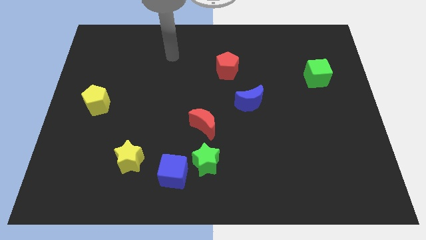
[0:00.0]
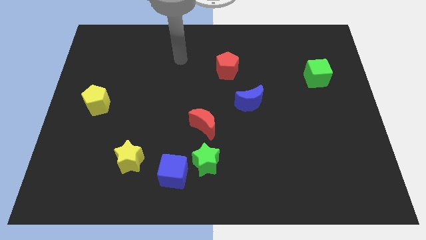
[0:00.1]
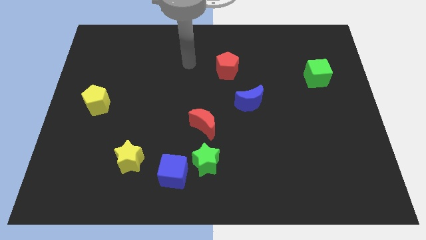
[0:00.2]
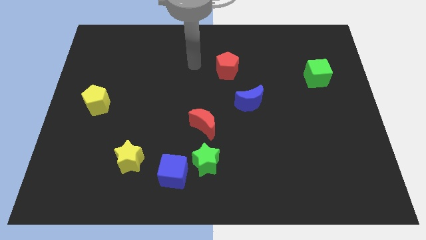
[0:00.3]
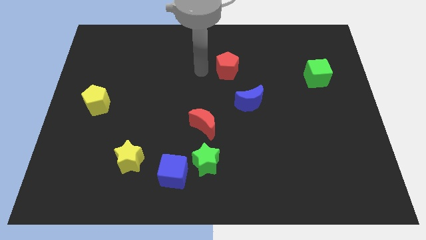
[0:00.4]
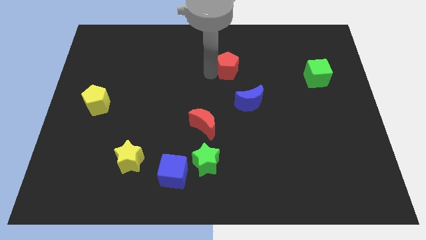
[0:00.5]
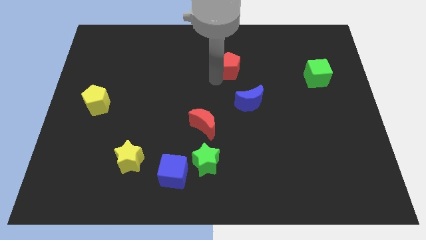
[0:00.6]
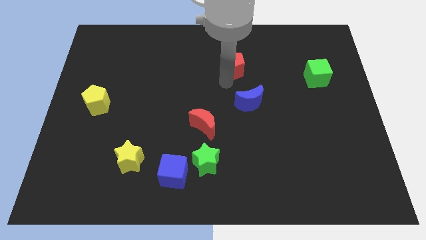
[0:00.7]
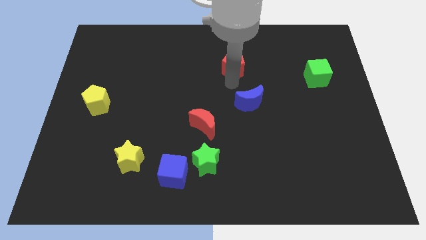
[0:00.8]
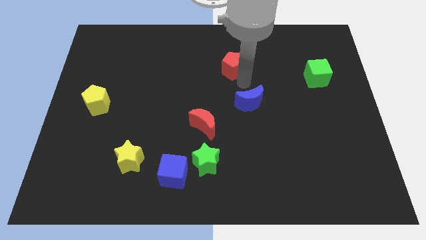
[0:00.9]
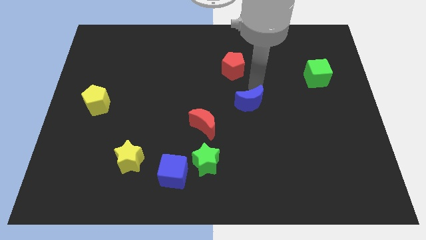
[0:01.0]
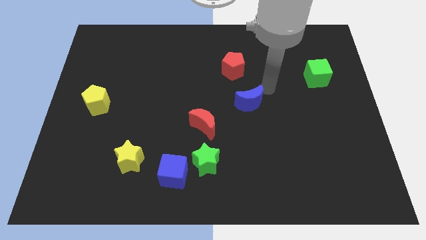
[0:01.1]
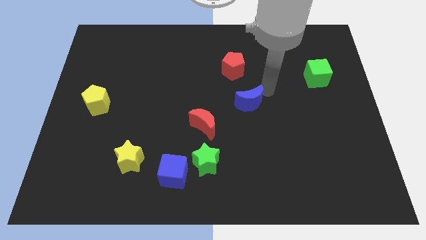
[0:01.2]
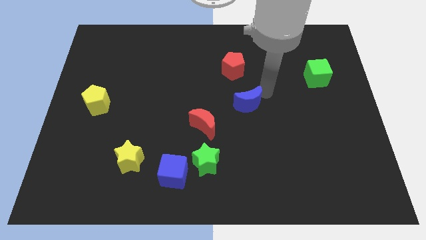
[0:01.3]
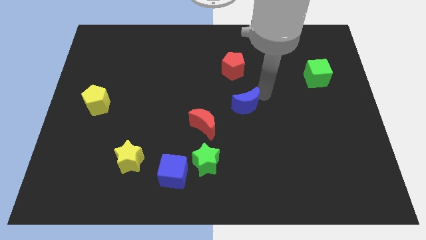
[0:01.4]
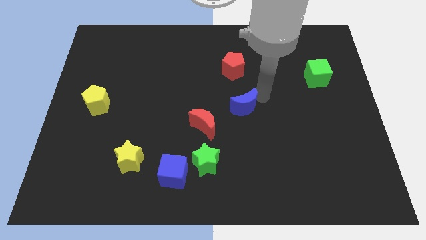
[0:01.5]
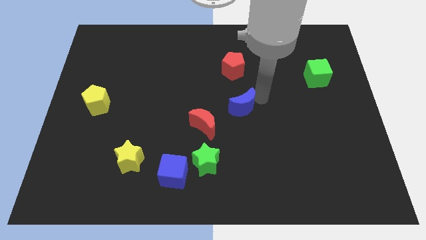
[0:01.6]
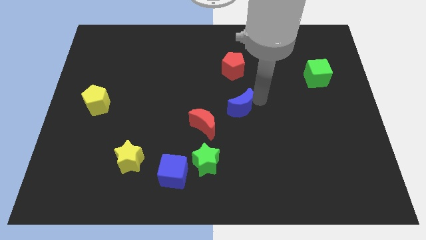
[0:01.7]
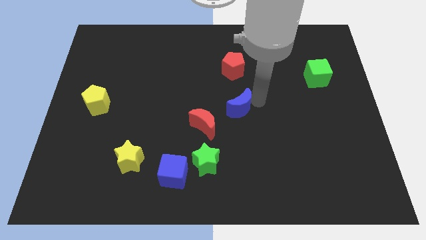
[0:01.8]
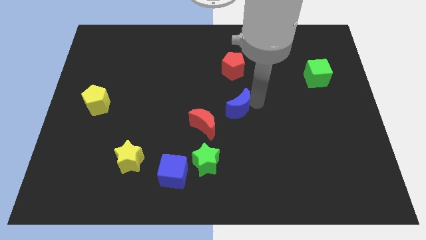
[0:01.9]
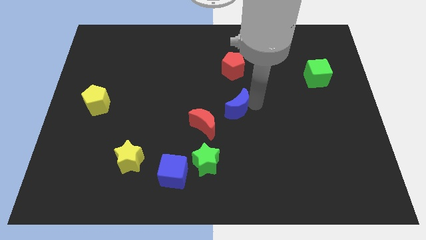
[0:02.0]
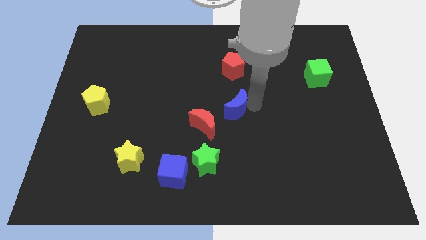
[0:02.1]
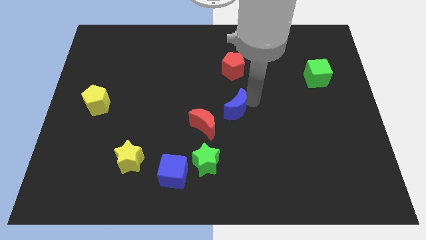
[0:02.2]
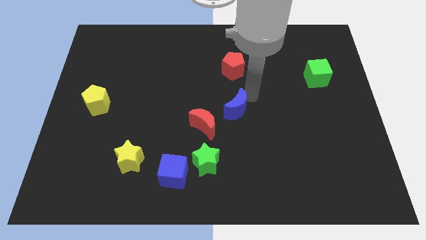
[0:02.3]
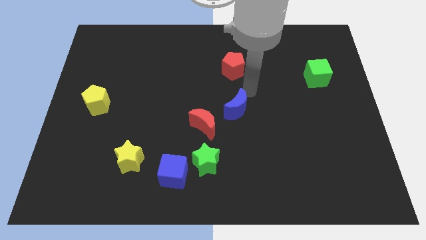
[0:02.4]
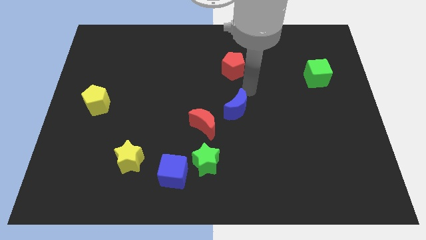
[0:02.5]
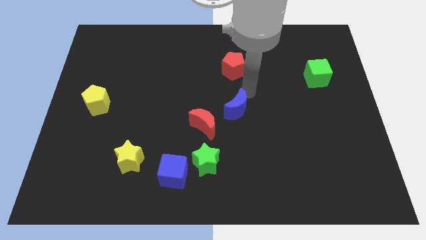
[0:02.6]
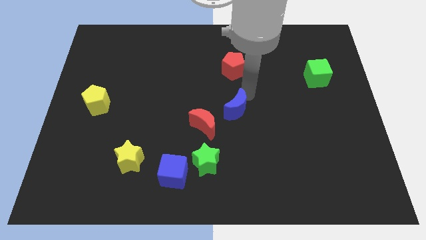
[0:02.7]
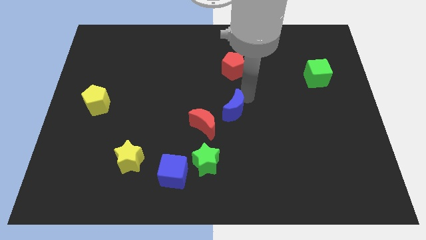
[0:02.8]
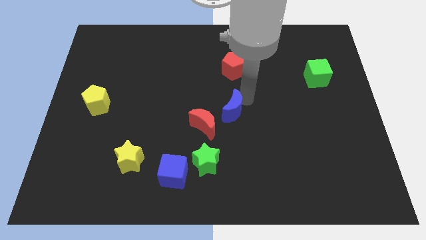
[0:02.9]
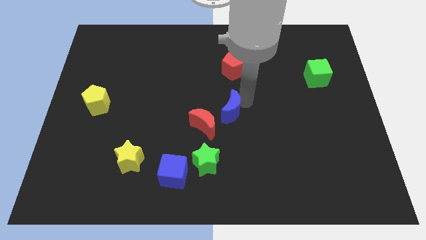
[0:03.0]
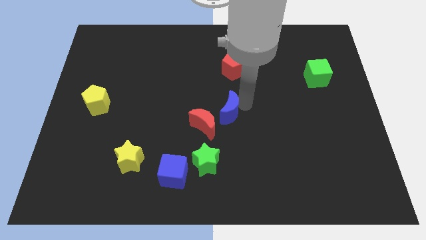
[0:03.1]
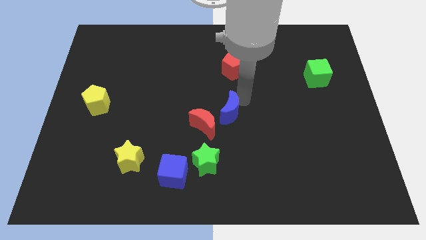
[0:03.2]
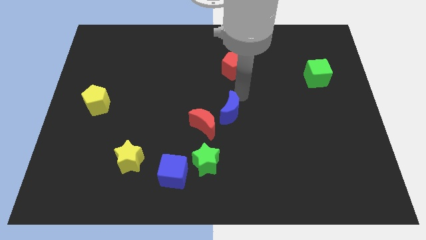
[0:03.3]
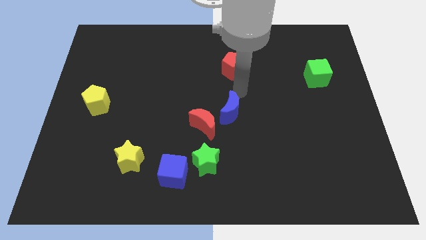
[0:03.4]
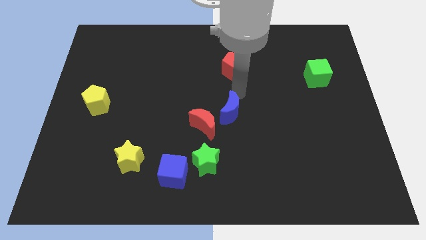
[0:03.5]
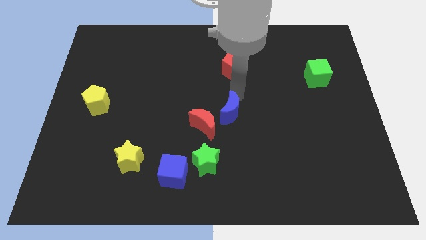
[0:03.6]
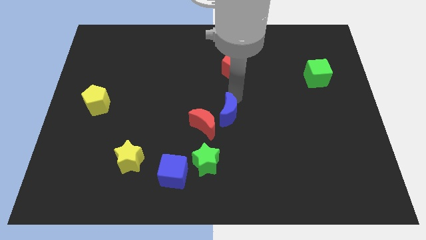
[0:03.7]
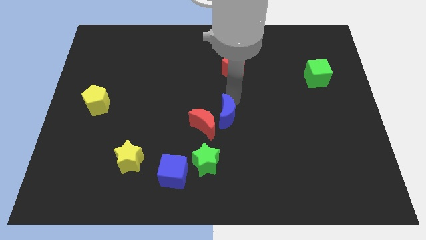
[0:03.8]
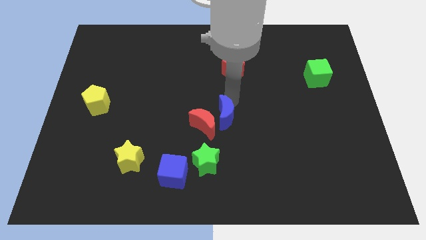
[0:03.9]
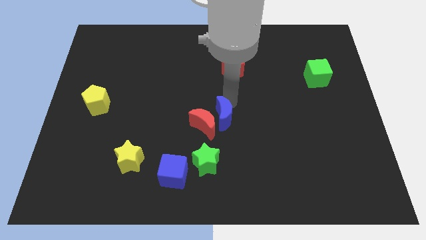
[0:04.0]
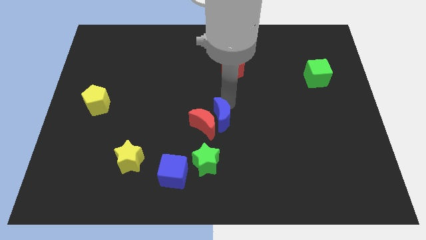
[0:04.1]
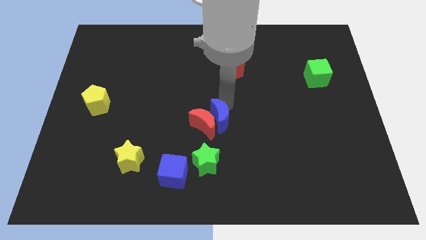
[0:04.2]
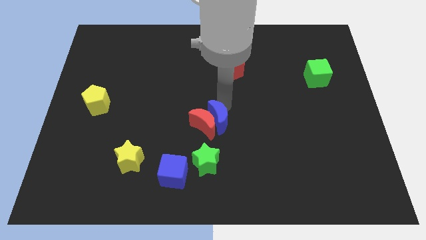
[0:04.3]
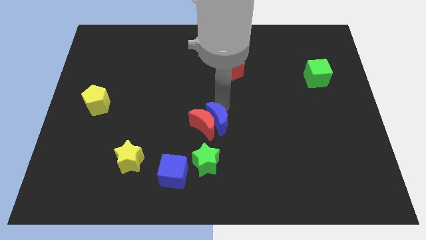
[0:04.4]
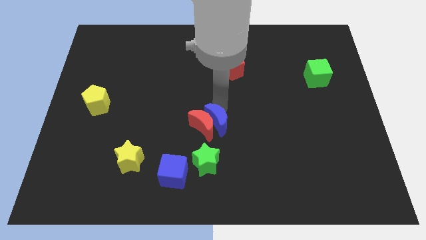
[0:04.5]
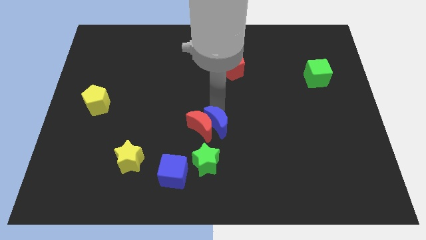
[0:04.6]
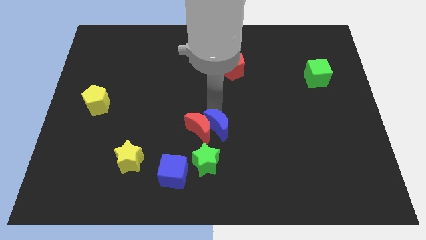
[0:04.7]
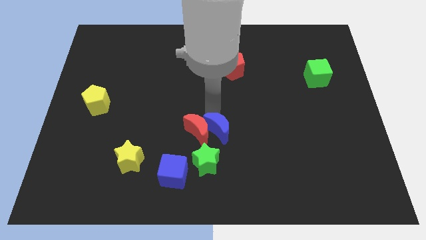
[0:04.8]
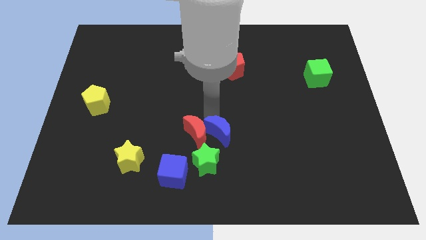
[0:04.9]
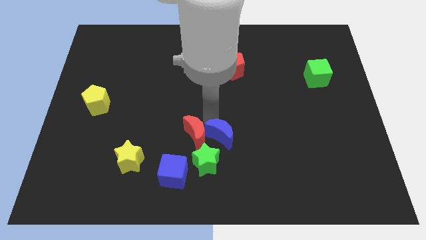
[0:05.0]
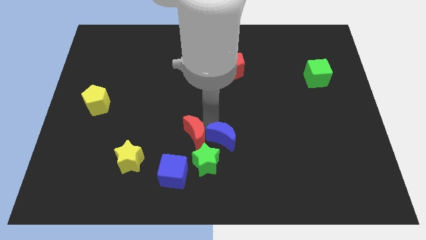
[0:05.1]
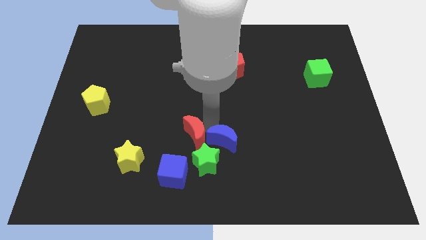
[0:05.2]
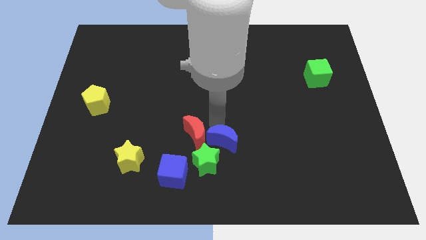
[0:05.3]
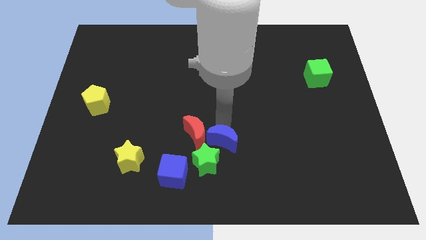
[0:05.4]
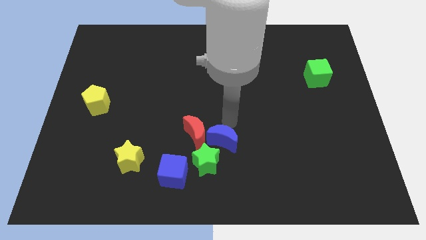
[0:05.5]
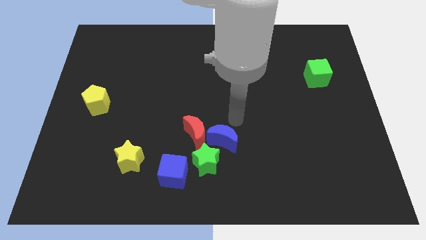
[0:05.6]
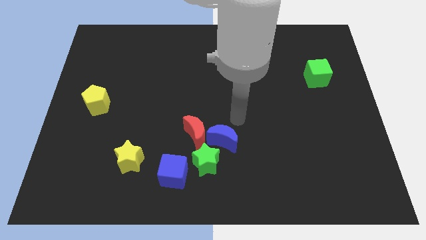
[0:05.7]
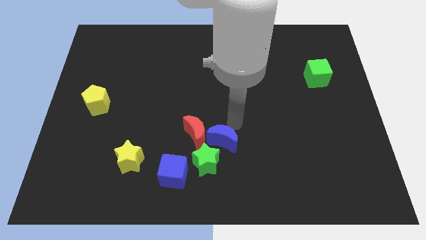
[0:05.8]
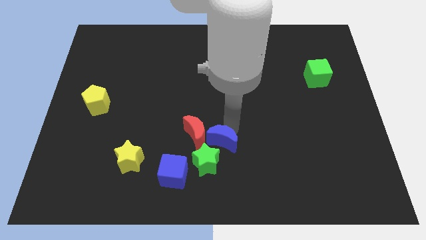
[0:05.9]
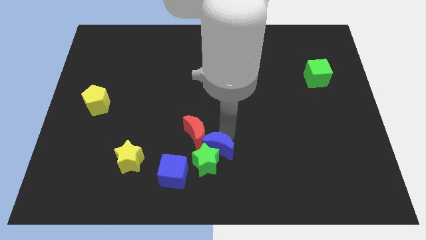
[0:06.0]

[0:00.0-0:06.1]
put the blue moon to the green star

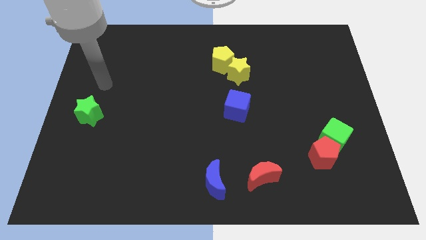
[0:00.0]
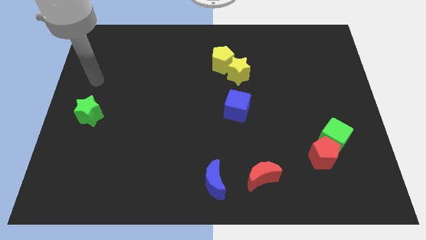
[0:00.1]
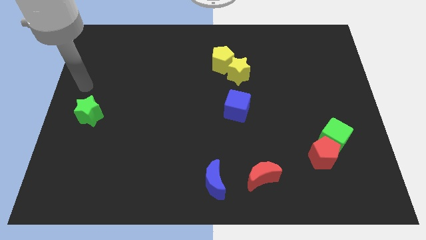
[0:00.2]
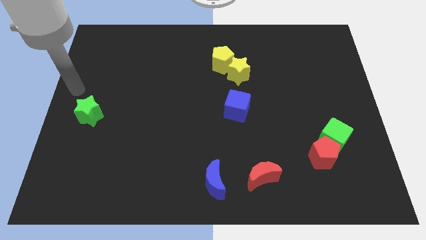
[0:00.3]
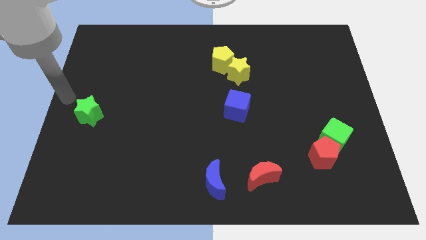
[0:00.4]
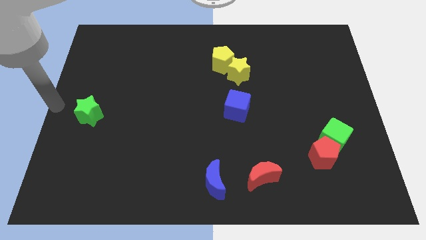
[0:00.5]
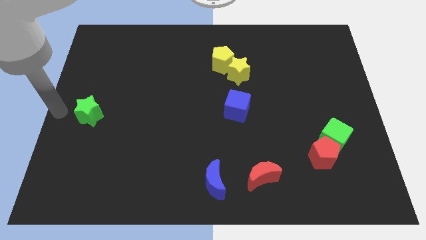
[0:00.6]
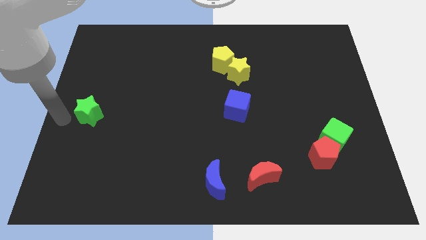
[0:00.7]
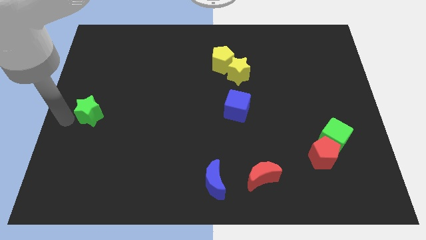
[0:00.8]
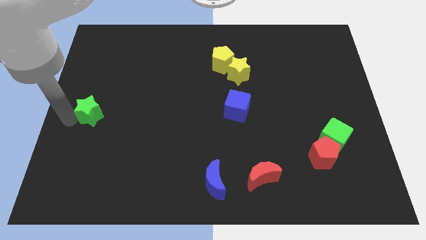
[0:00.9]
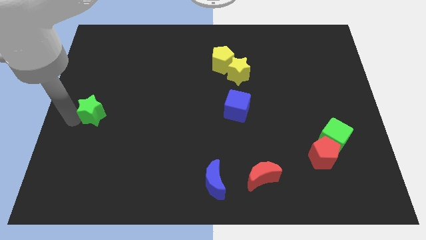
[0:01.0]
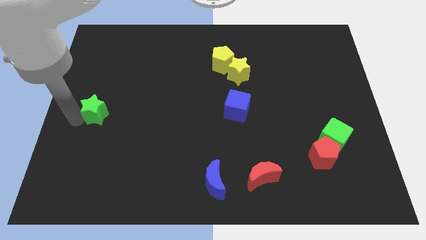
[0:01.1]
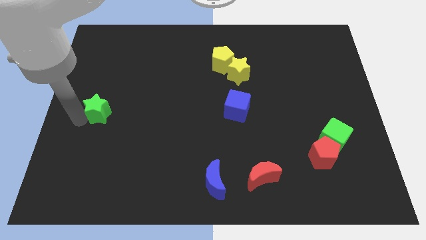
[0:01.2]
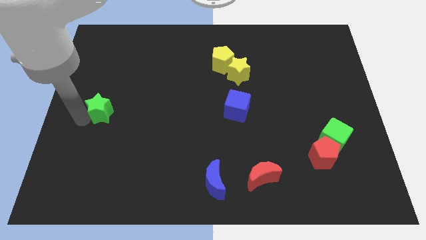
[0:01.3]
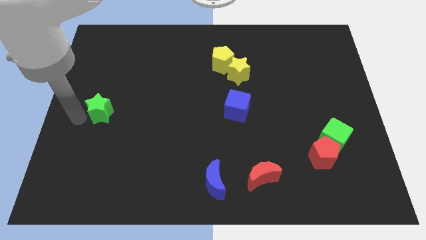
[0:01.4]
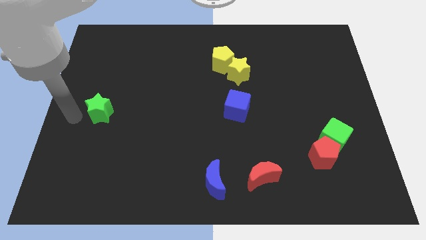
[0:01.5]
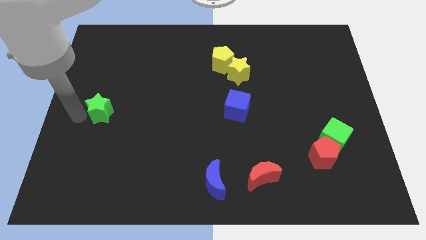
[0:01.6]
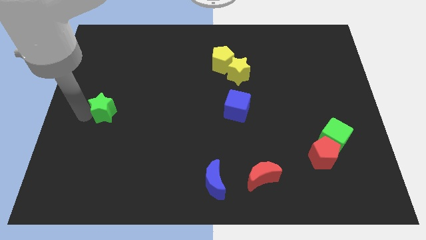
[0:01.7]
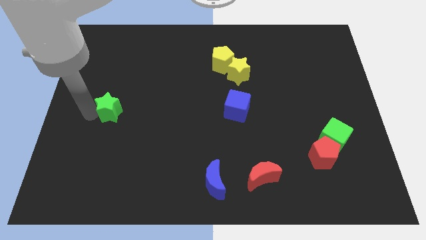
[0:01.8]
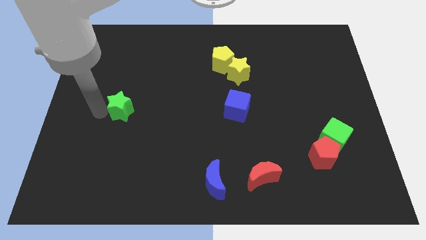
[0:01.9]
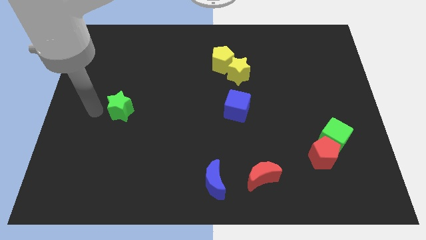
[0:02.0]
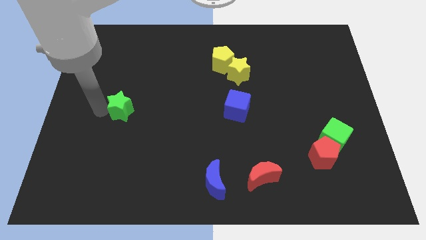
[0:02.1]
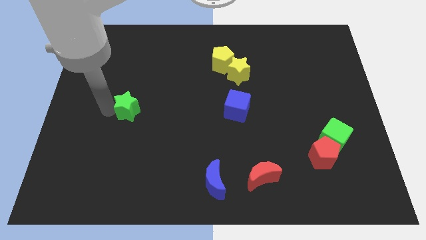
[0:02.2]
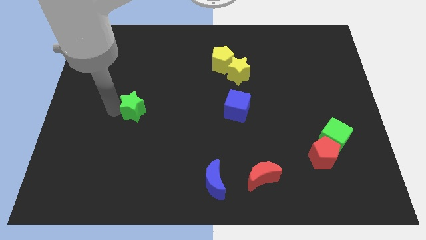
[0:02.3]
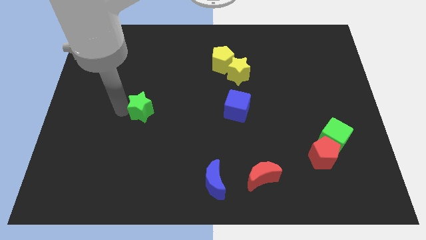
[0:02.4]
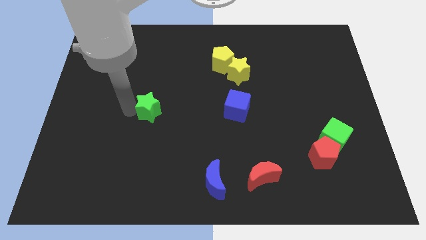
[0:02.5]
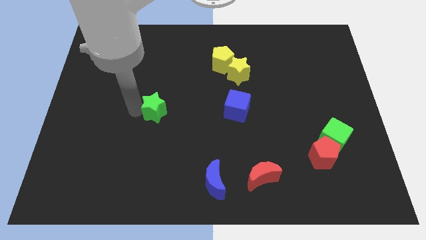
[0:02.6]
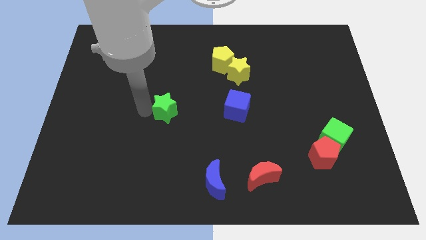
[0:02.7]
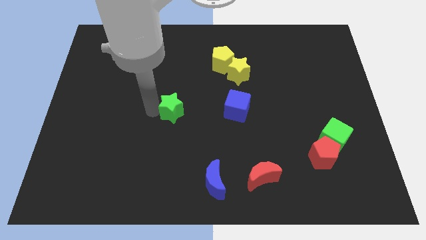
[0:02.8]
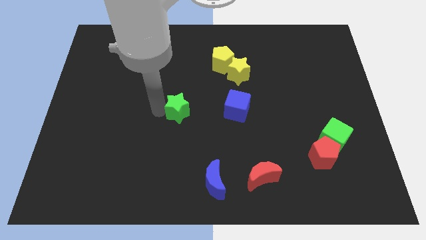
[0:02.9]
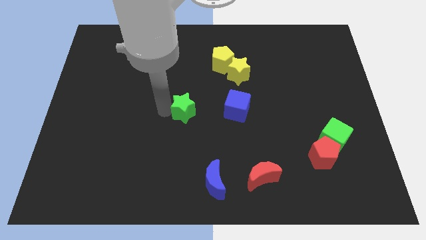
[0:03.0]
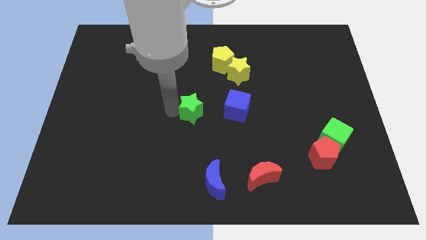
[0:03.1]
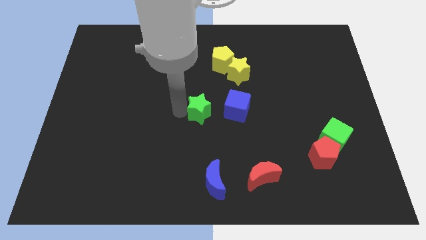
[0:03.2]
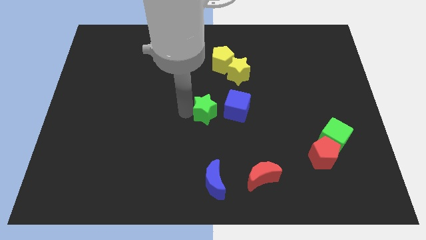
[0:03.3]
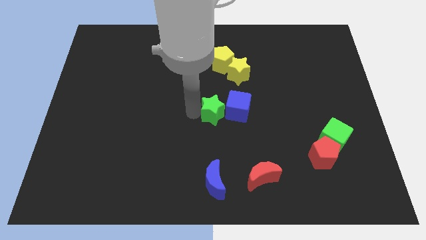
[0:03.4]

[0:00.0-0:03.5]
push the green star close to the blue cube
